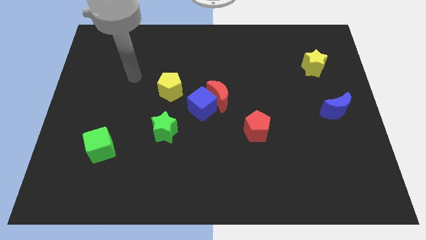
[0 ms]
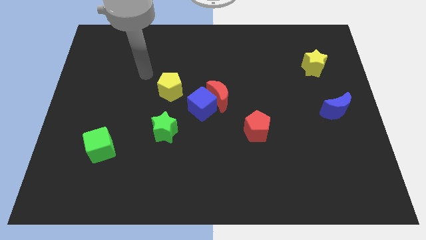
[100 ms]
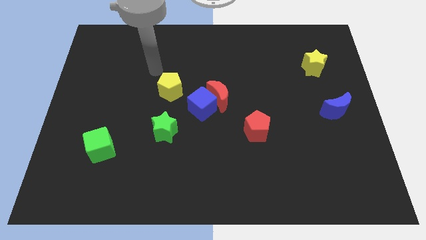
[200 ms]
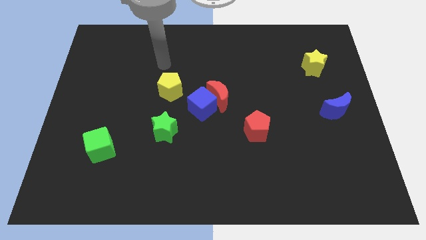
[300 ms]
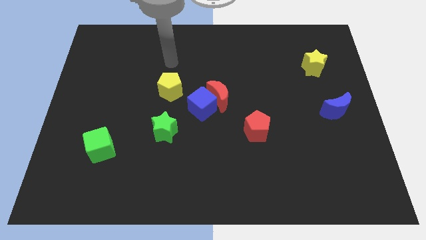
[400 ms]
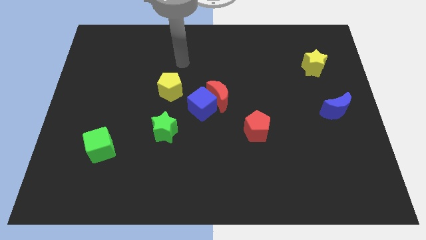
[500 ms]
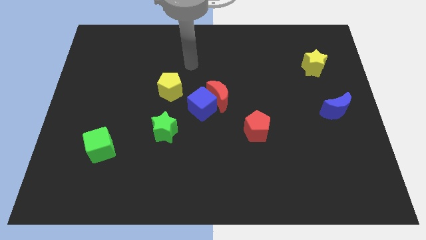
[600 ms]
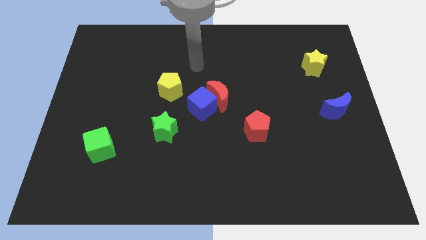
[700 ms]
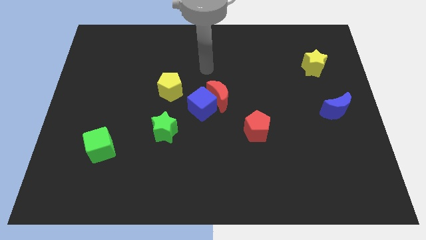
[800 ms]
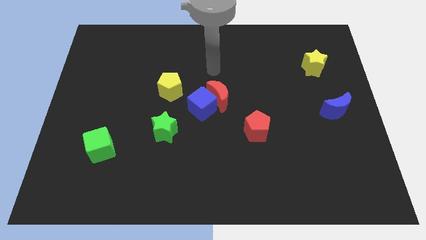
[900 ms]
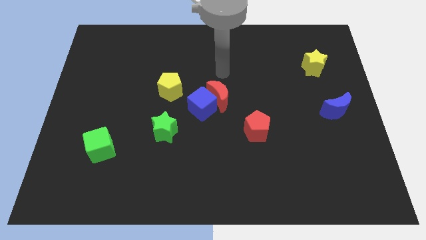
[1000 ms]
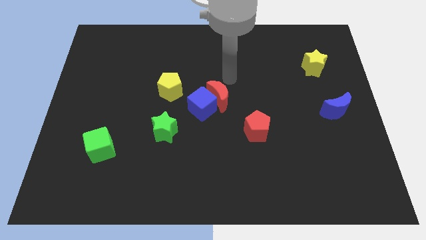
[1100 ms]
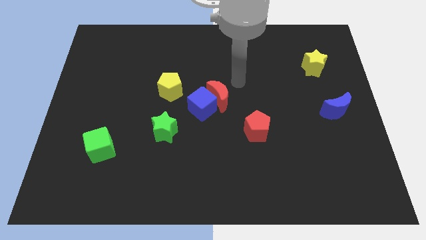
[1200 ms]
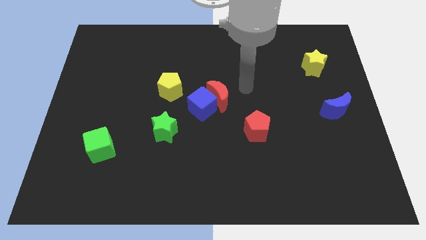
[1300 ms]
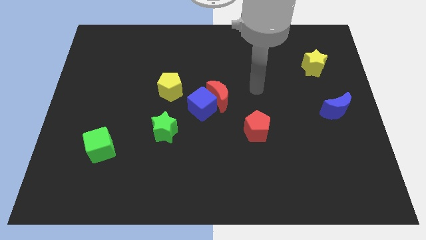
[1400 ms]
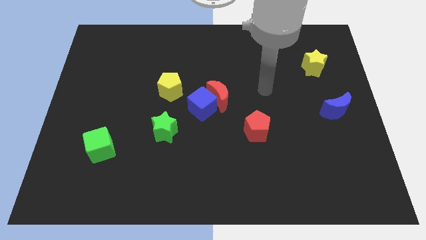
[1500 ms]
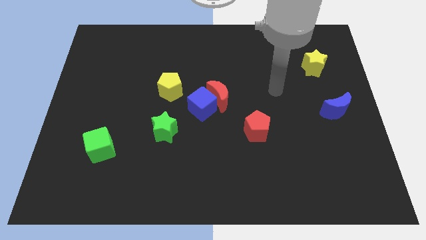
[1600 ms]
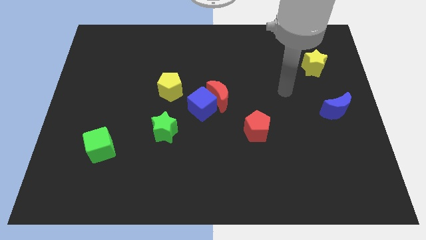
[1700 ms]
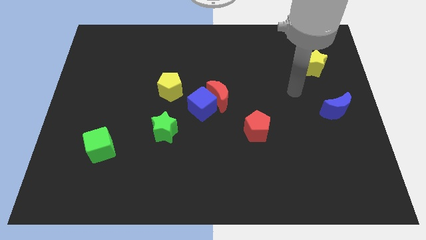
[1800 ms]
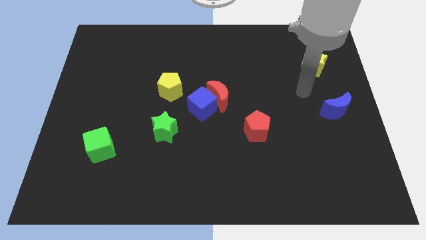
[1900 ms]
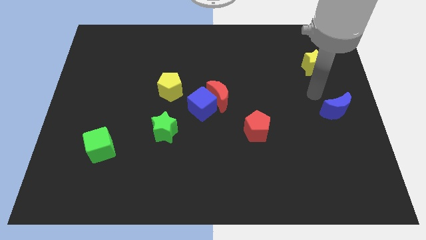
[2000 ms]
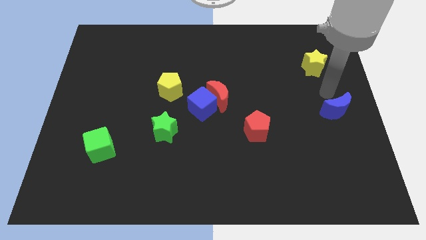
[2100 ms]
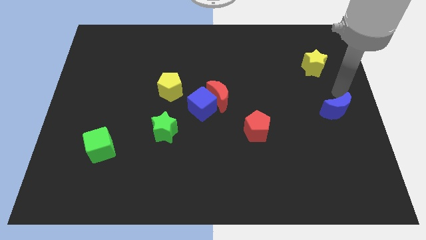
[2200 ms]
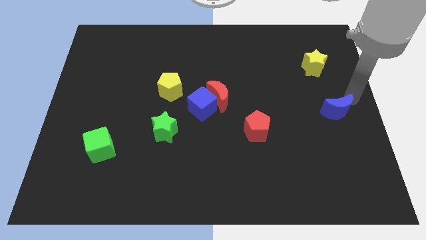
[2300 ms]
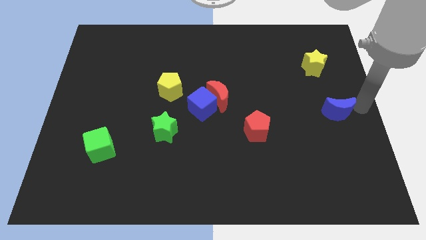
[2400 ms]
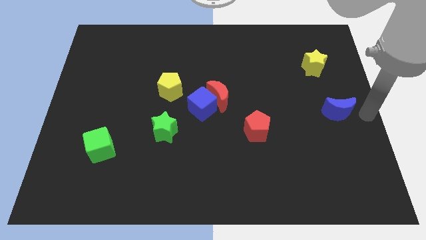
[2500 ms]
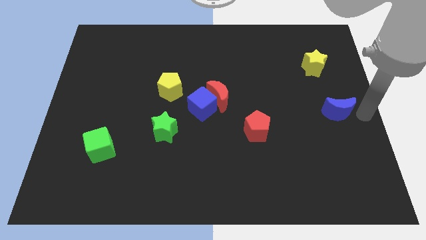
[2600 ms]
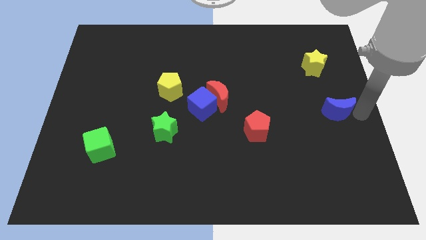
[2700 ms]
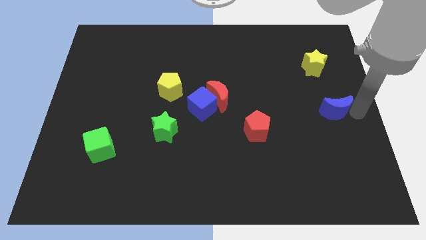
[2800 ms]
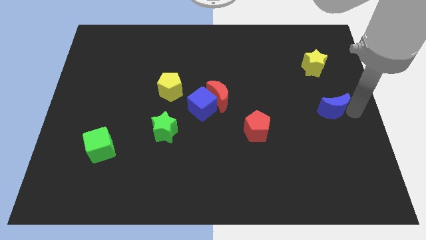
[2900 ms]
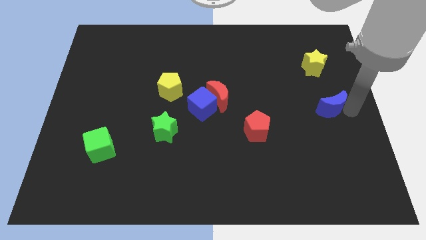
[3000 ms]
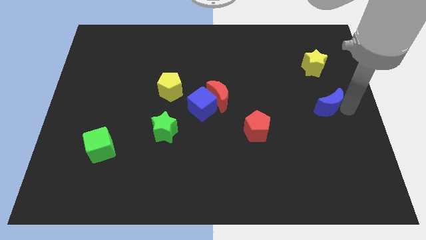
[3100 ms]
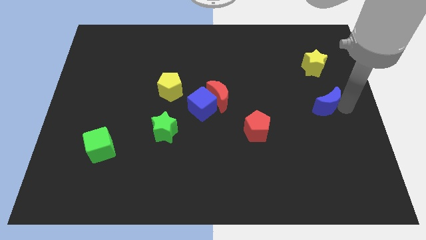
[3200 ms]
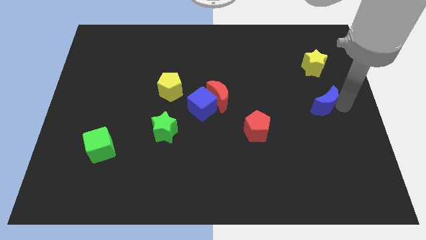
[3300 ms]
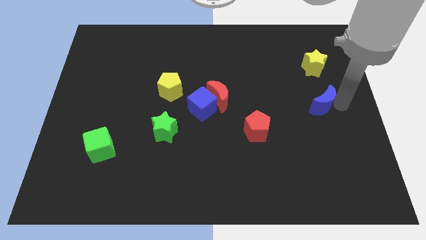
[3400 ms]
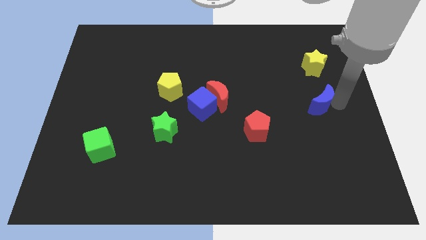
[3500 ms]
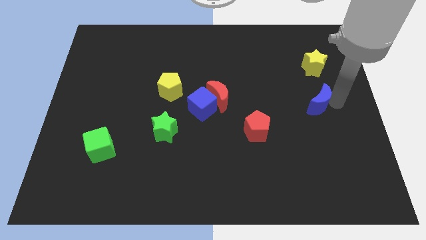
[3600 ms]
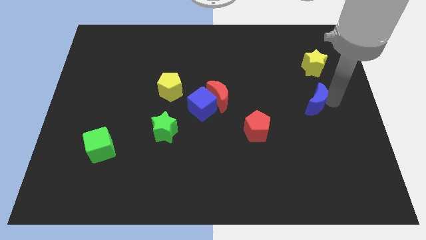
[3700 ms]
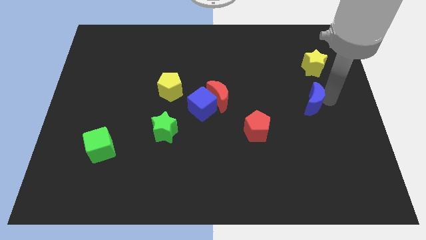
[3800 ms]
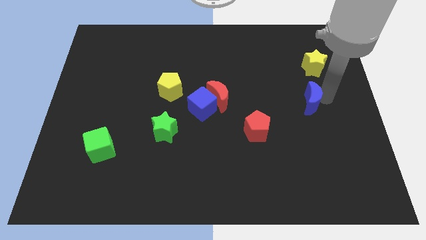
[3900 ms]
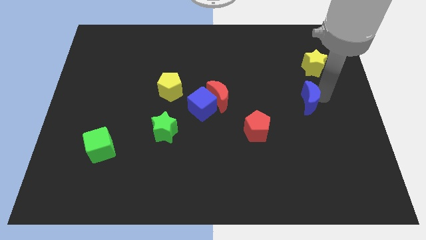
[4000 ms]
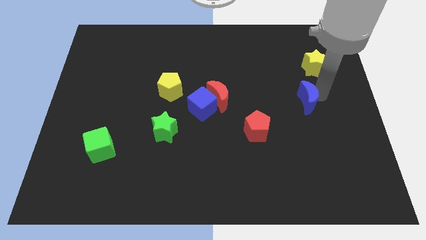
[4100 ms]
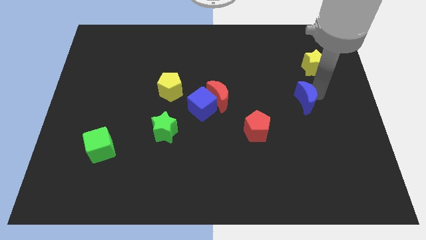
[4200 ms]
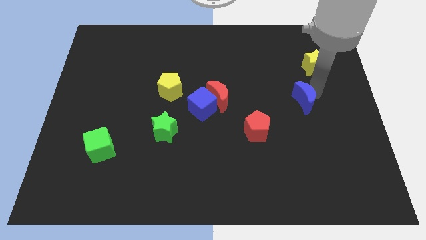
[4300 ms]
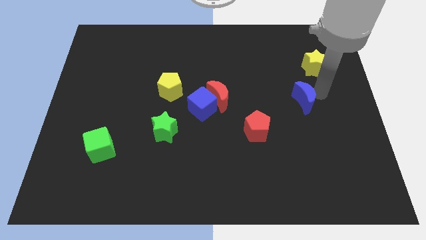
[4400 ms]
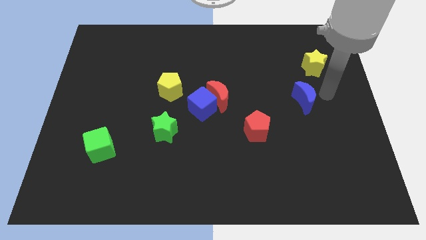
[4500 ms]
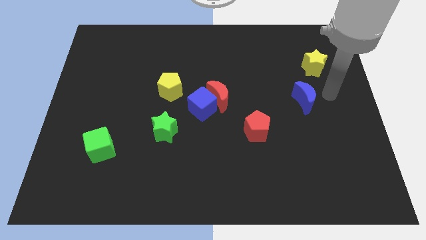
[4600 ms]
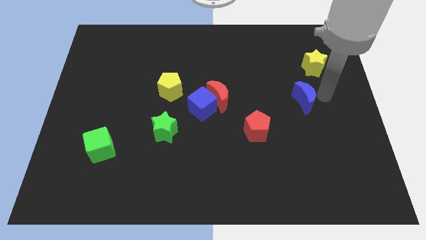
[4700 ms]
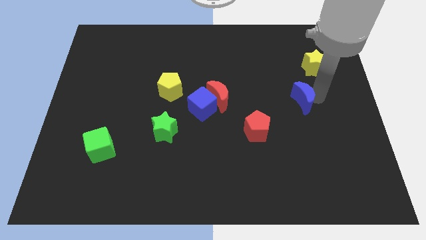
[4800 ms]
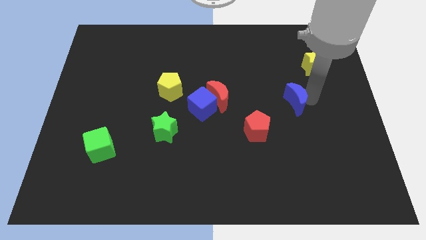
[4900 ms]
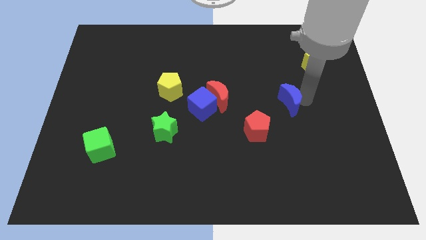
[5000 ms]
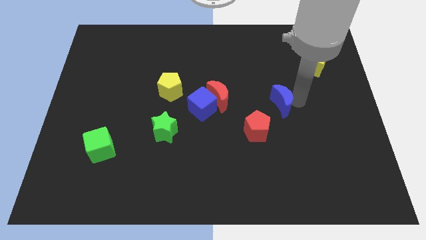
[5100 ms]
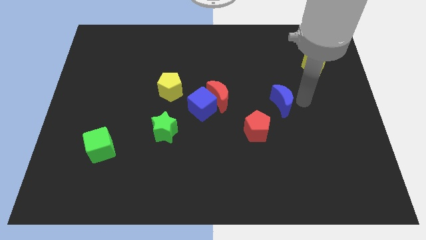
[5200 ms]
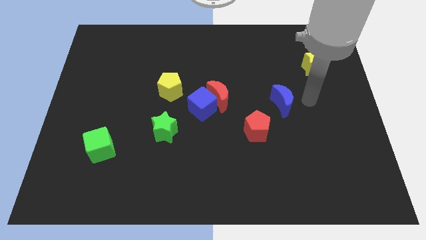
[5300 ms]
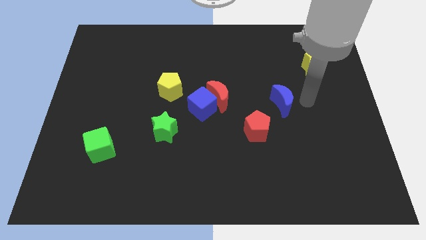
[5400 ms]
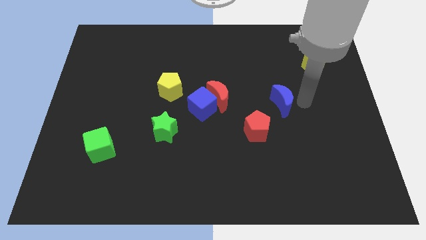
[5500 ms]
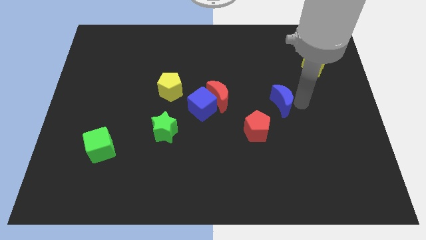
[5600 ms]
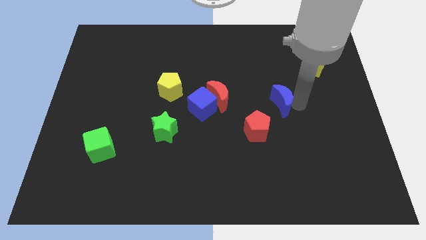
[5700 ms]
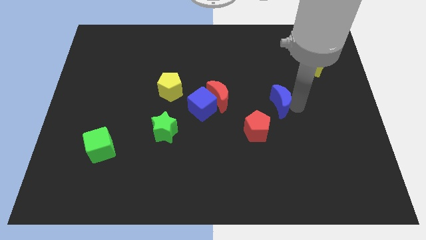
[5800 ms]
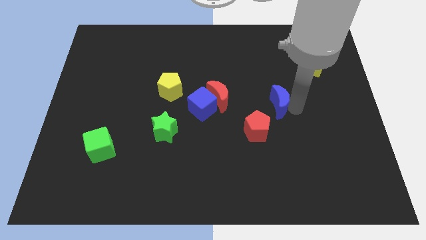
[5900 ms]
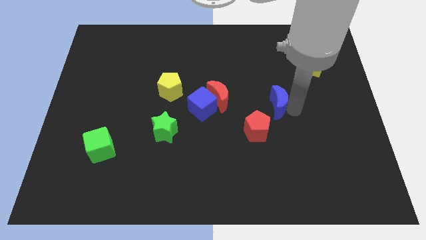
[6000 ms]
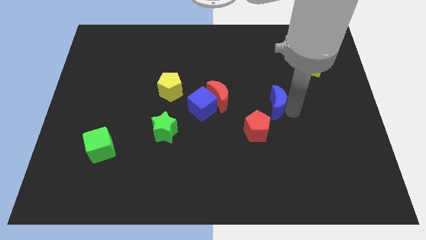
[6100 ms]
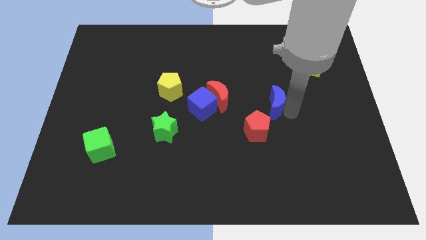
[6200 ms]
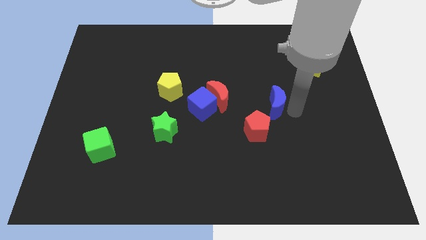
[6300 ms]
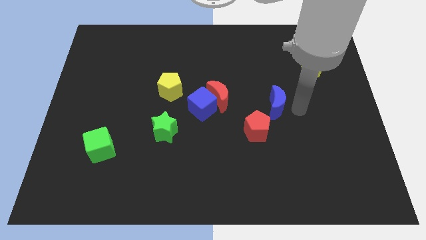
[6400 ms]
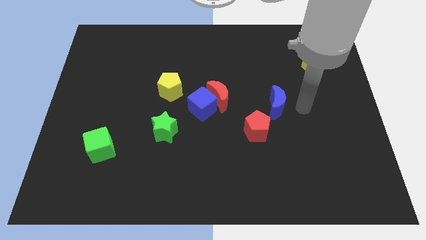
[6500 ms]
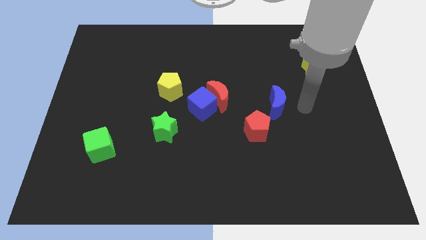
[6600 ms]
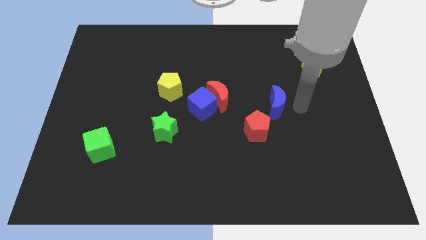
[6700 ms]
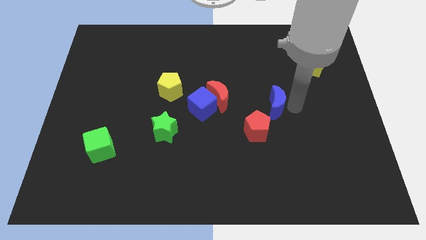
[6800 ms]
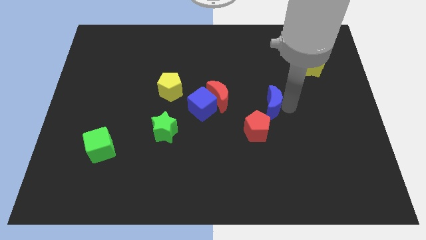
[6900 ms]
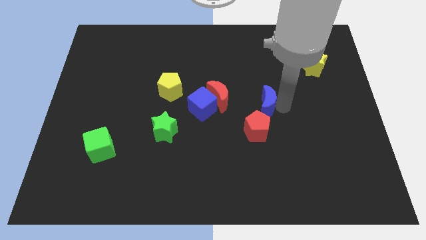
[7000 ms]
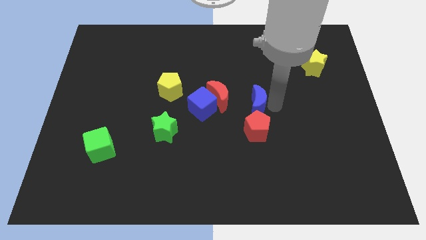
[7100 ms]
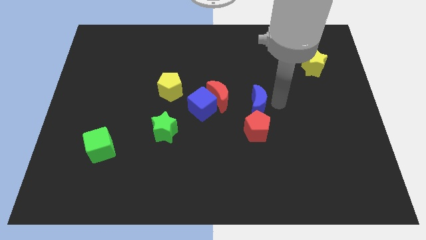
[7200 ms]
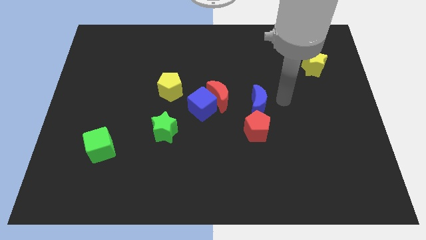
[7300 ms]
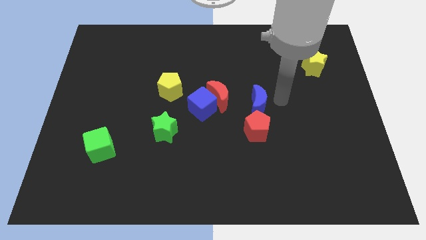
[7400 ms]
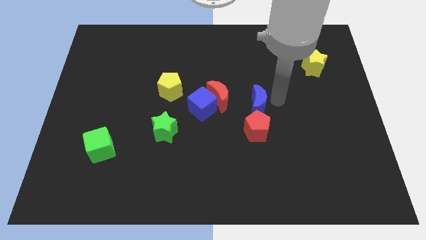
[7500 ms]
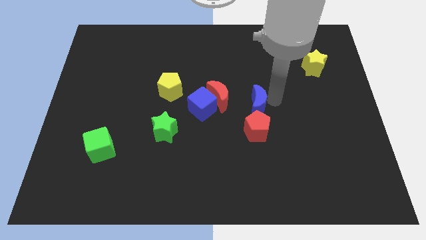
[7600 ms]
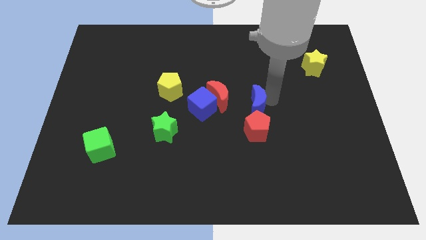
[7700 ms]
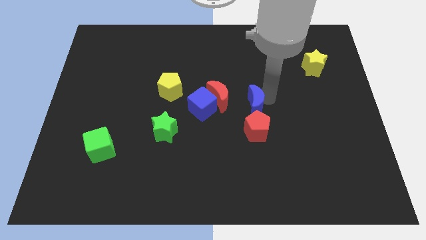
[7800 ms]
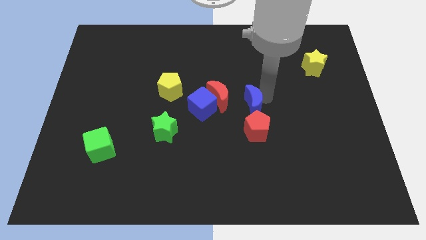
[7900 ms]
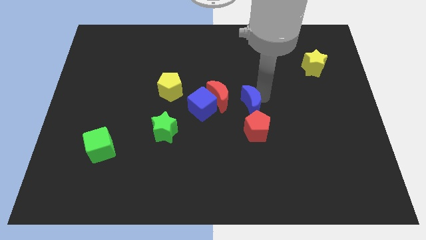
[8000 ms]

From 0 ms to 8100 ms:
push the blue moon diagonally up and to the left of the red pentagon
